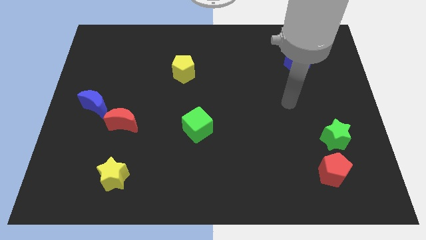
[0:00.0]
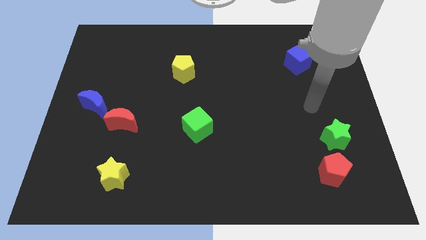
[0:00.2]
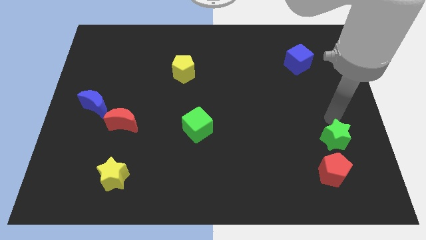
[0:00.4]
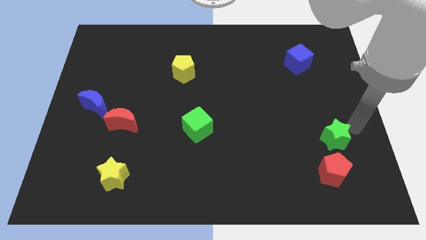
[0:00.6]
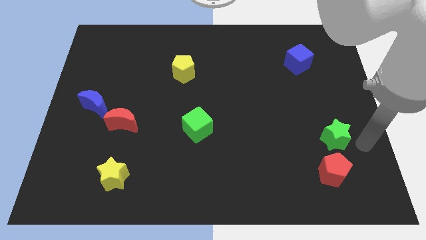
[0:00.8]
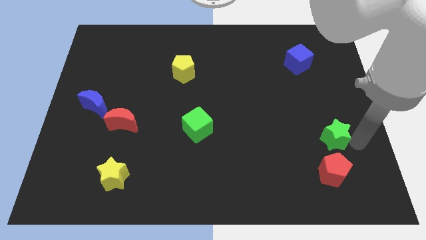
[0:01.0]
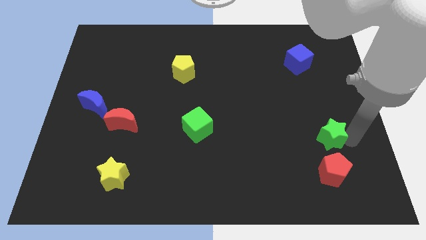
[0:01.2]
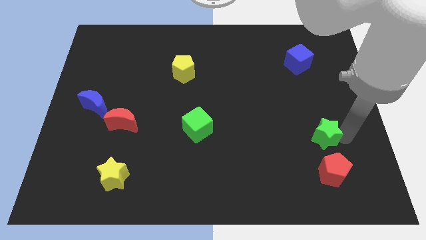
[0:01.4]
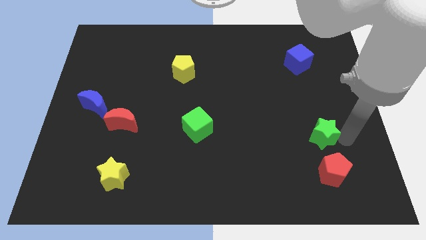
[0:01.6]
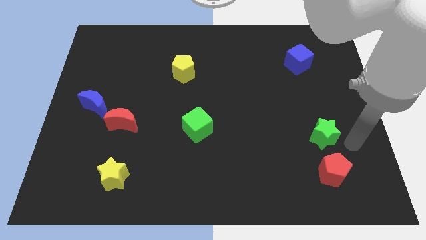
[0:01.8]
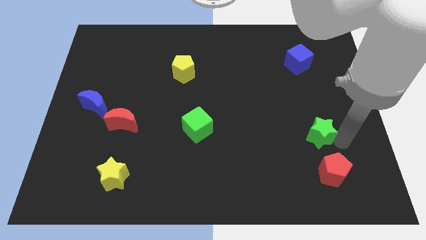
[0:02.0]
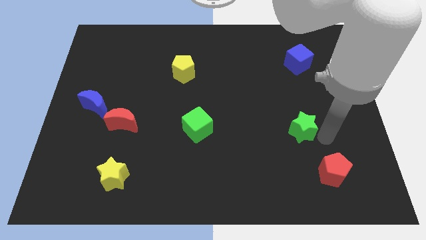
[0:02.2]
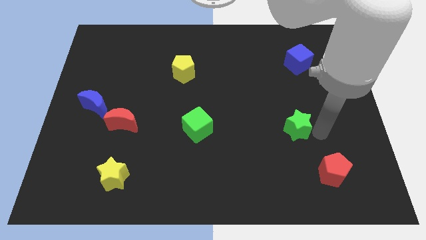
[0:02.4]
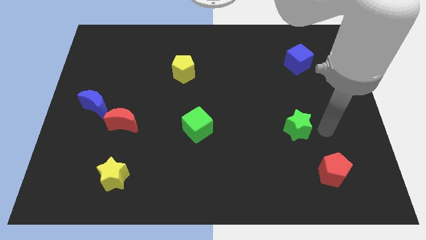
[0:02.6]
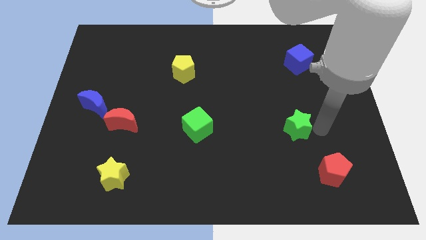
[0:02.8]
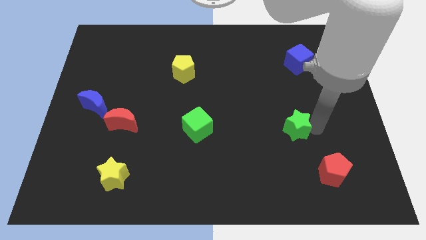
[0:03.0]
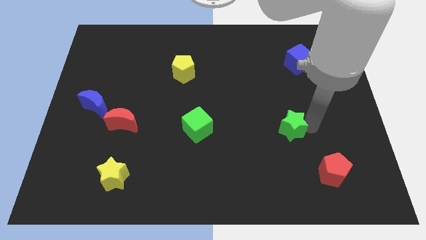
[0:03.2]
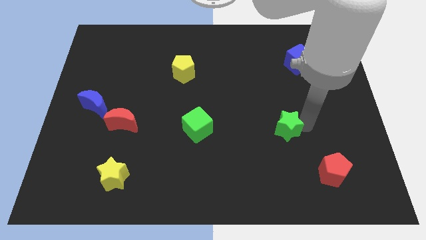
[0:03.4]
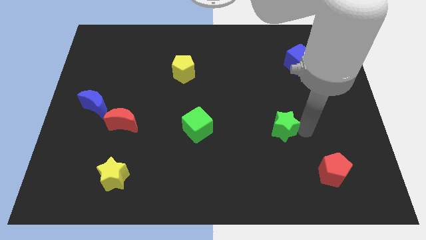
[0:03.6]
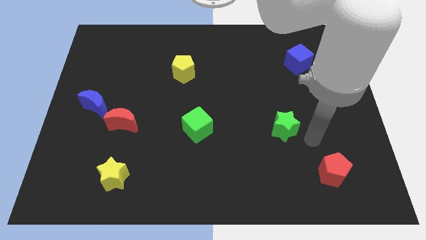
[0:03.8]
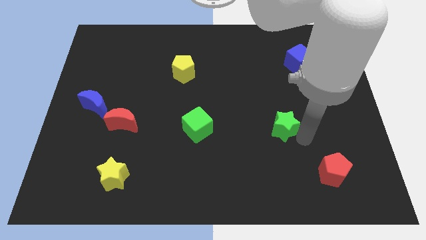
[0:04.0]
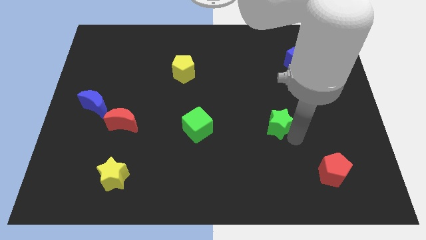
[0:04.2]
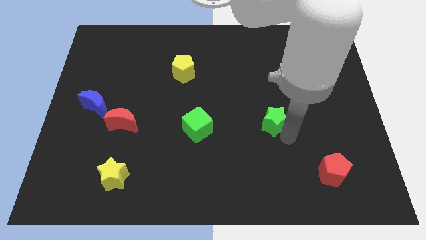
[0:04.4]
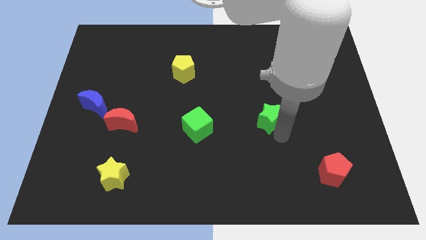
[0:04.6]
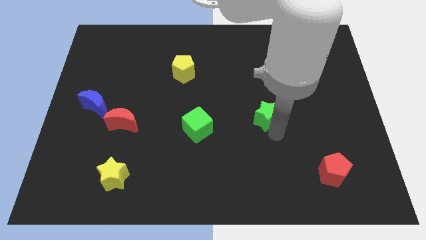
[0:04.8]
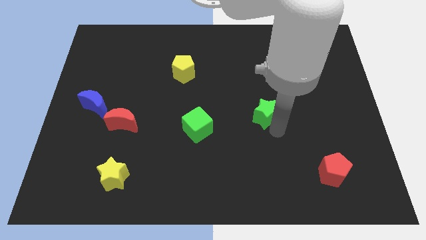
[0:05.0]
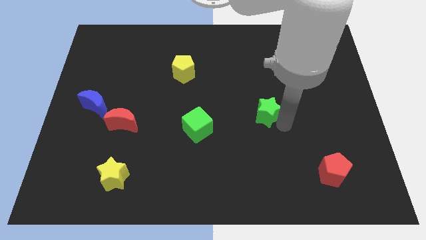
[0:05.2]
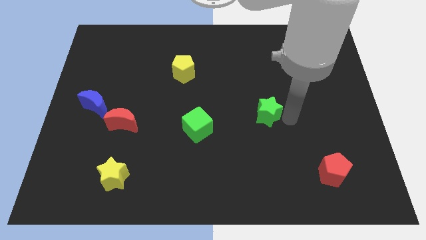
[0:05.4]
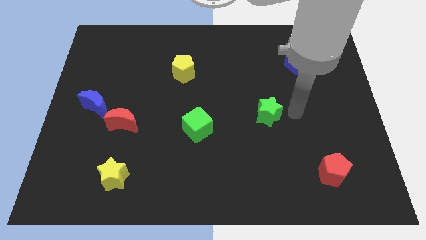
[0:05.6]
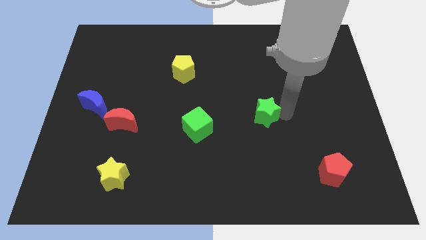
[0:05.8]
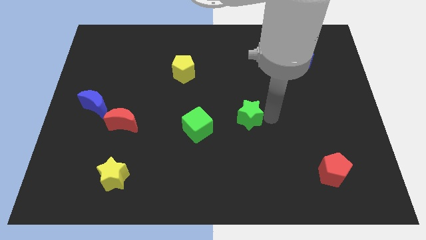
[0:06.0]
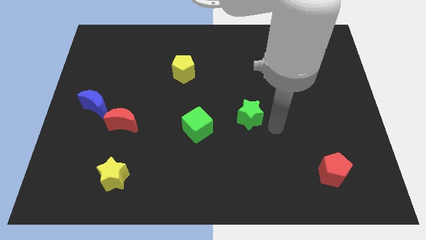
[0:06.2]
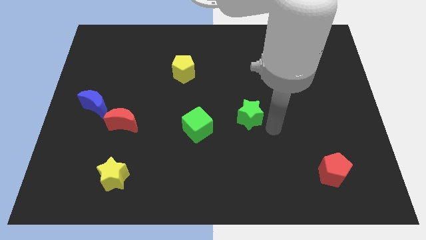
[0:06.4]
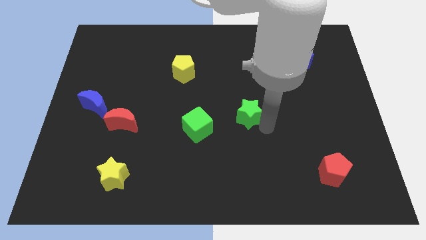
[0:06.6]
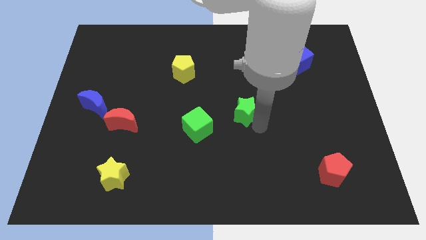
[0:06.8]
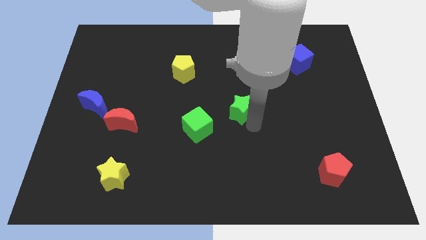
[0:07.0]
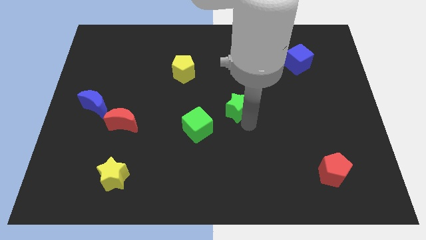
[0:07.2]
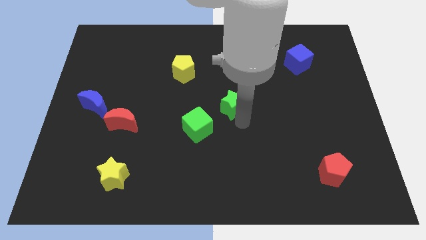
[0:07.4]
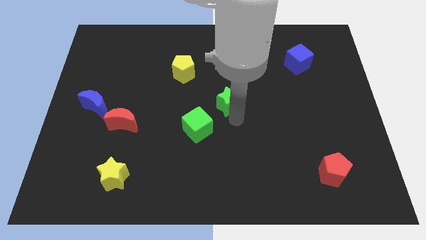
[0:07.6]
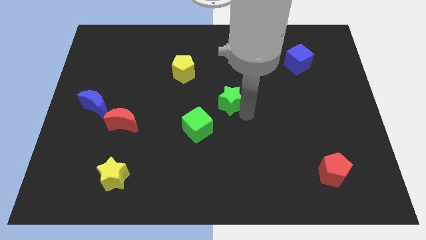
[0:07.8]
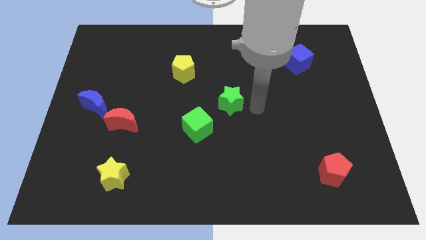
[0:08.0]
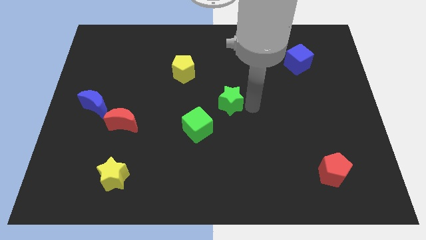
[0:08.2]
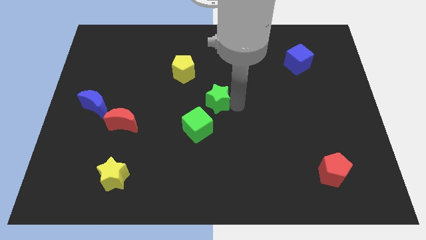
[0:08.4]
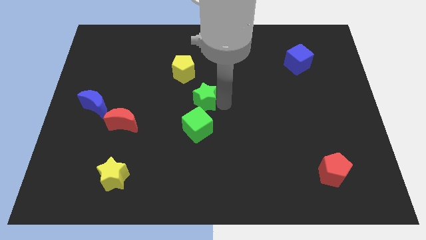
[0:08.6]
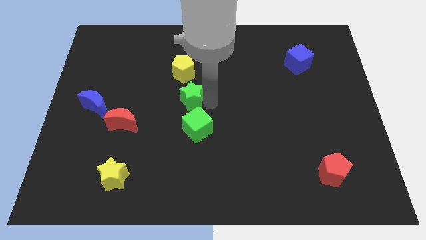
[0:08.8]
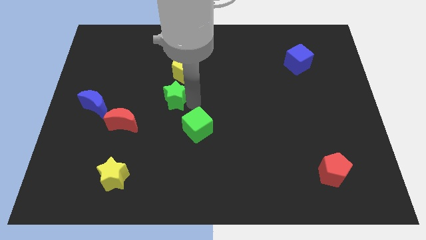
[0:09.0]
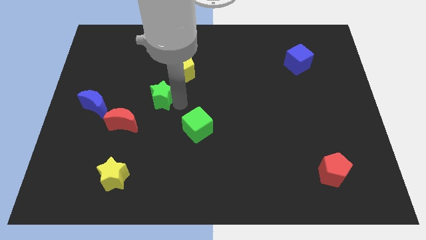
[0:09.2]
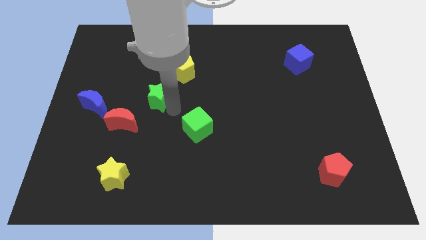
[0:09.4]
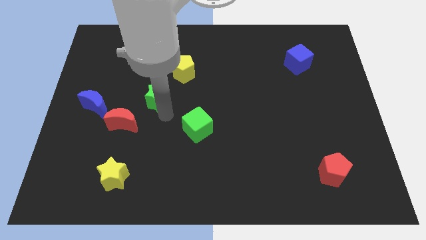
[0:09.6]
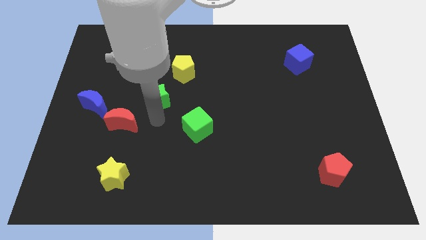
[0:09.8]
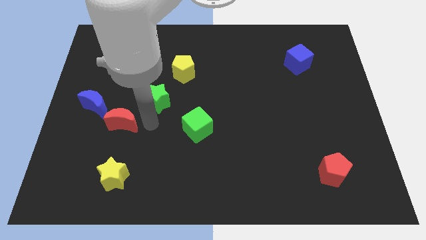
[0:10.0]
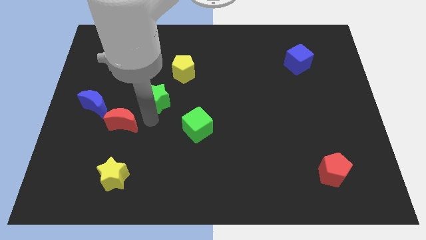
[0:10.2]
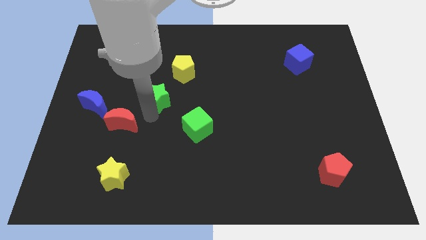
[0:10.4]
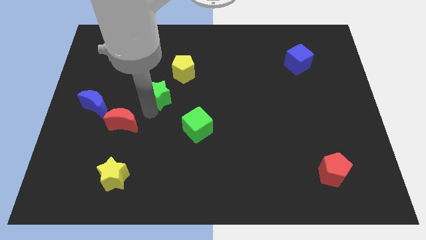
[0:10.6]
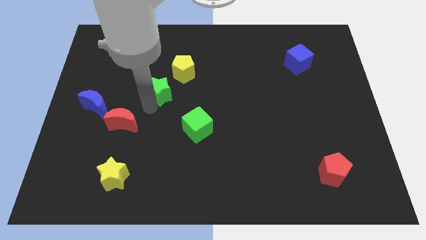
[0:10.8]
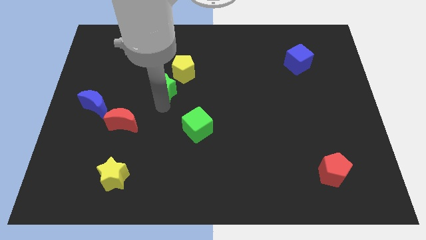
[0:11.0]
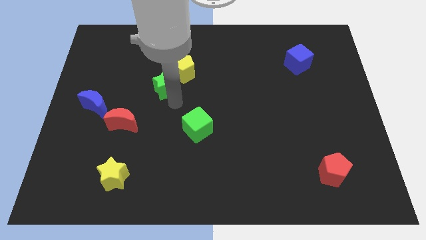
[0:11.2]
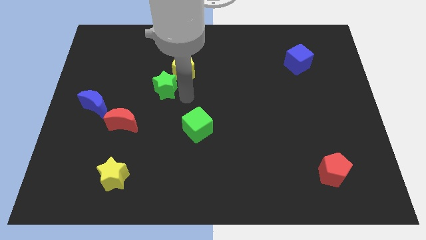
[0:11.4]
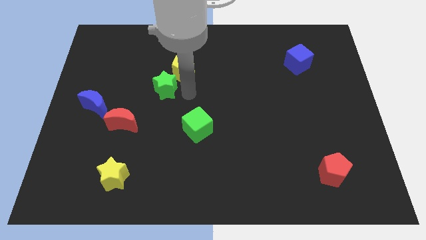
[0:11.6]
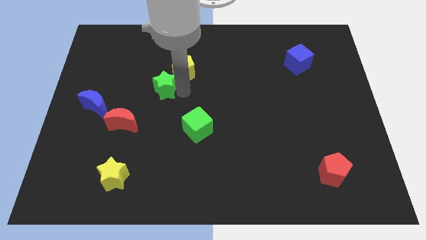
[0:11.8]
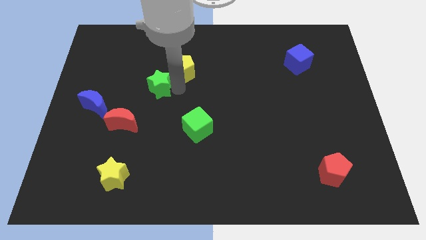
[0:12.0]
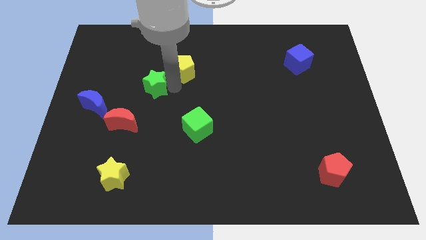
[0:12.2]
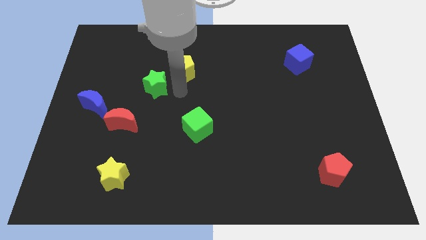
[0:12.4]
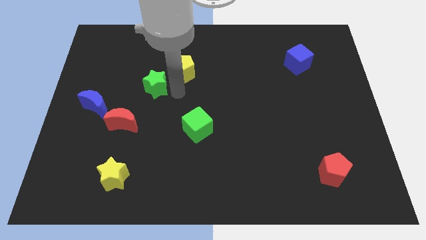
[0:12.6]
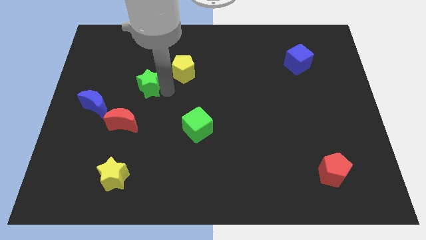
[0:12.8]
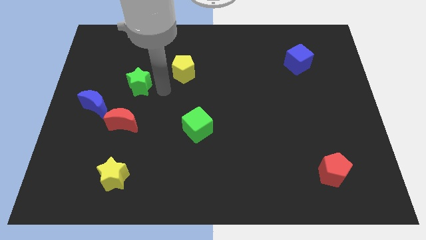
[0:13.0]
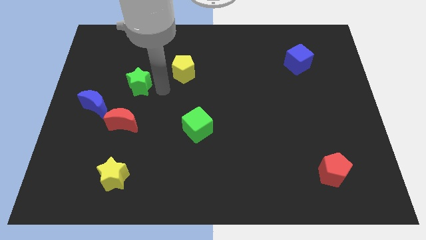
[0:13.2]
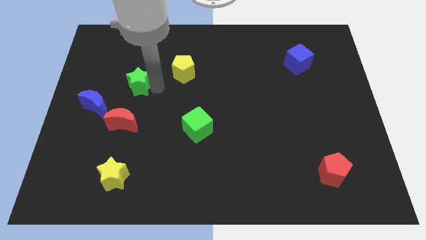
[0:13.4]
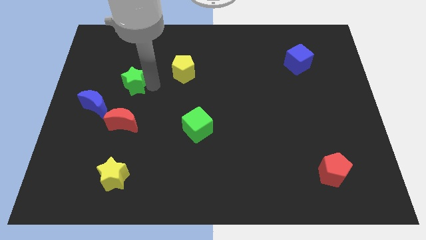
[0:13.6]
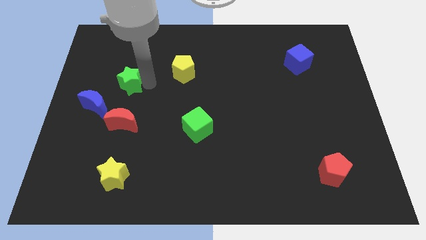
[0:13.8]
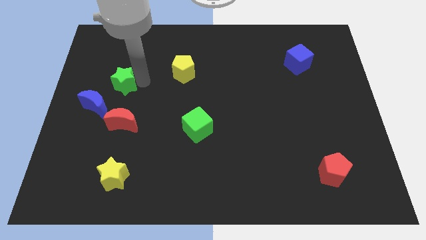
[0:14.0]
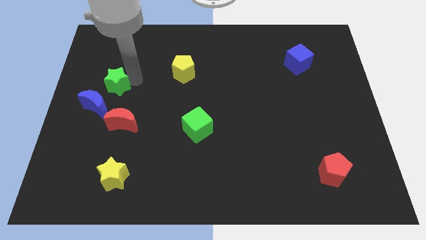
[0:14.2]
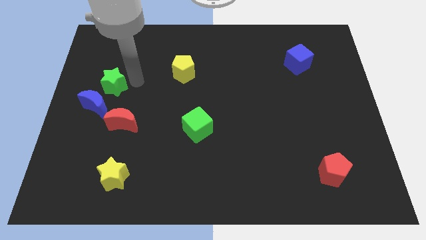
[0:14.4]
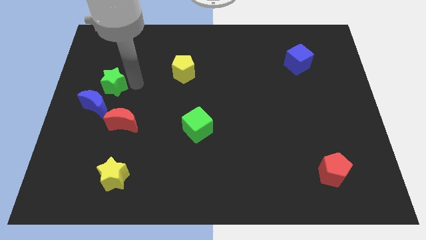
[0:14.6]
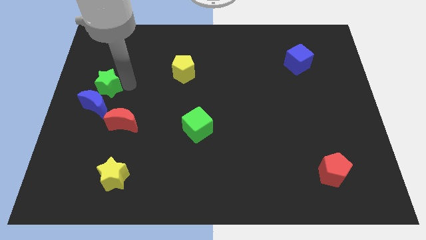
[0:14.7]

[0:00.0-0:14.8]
slide the green star to the center left
